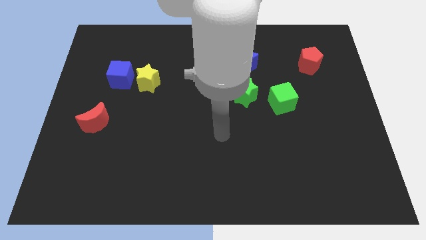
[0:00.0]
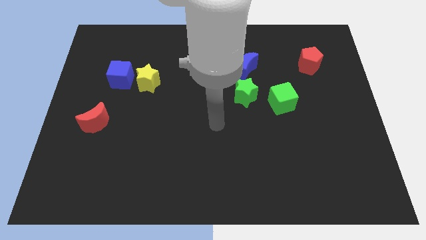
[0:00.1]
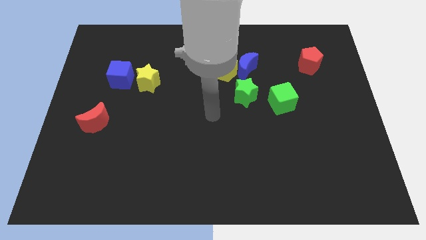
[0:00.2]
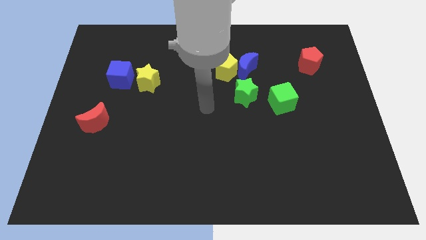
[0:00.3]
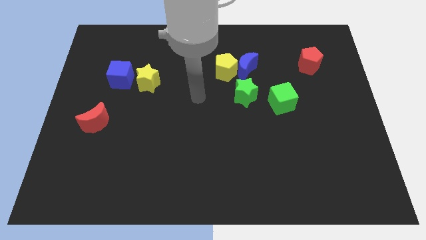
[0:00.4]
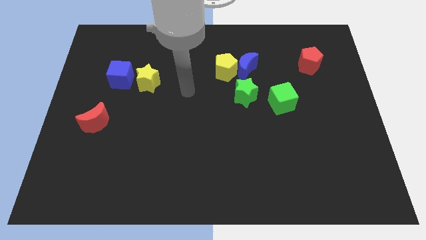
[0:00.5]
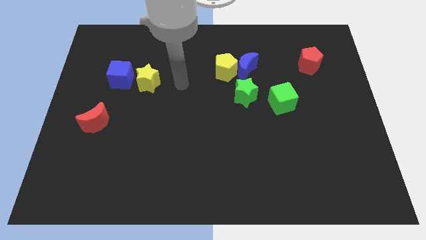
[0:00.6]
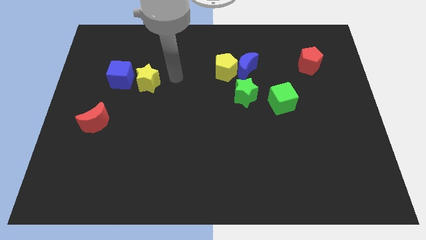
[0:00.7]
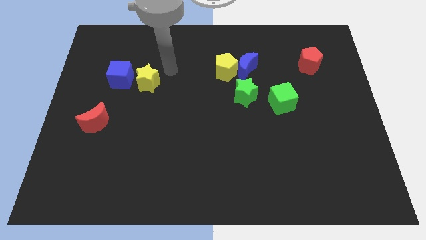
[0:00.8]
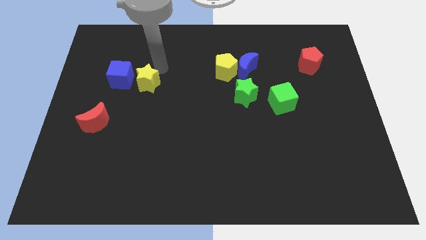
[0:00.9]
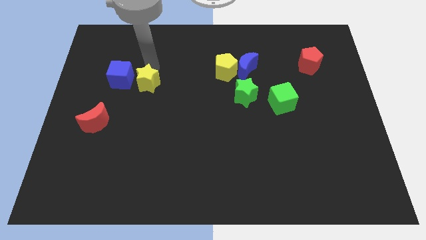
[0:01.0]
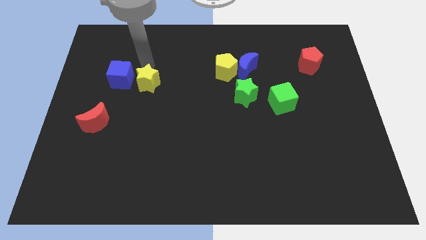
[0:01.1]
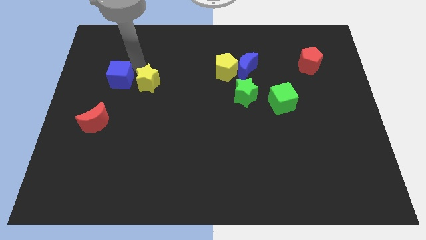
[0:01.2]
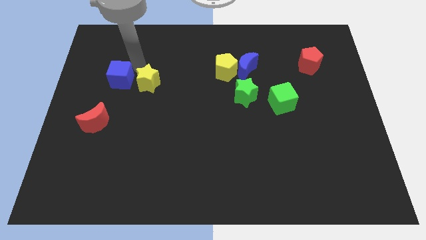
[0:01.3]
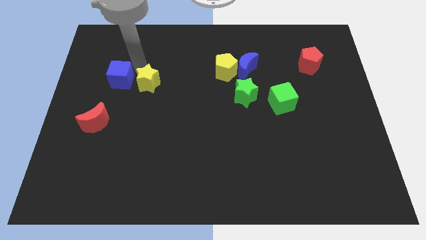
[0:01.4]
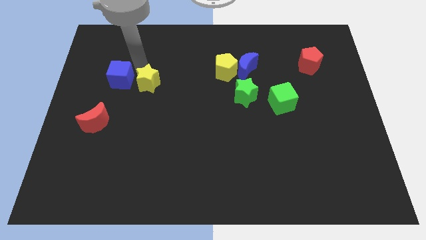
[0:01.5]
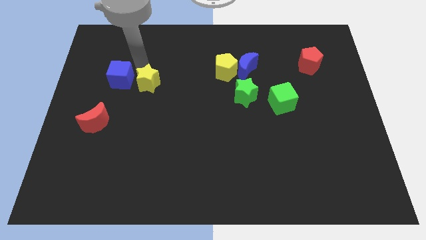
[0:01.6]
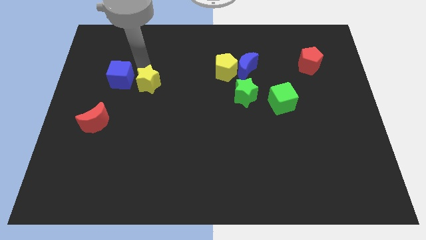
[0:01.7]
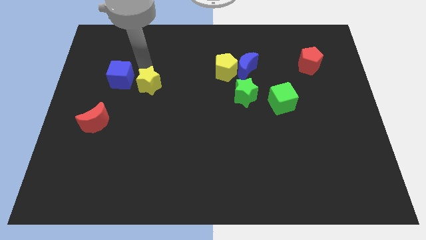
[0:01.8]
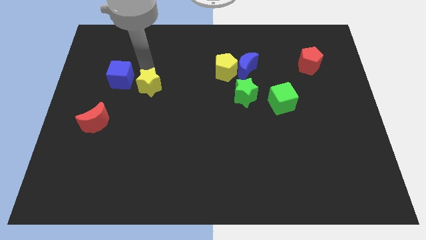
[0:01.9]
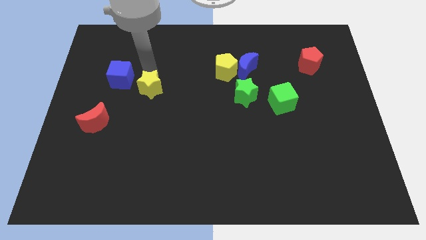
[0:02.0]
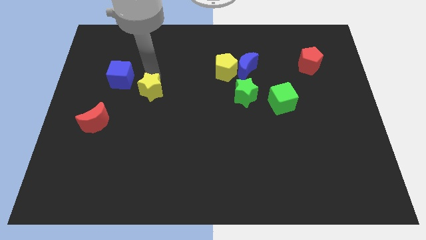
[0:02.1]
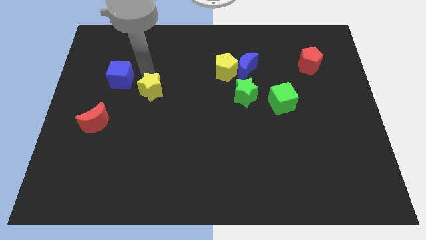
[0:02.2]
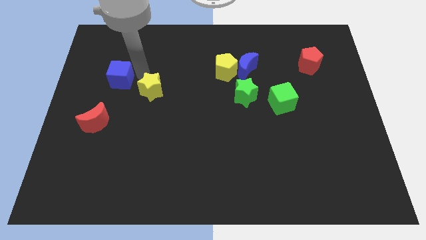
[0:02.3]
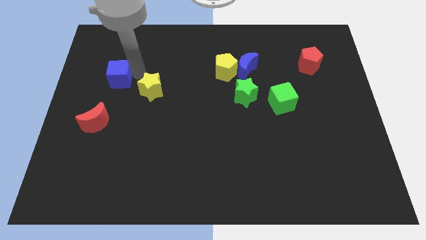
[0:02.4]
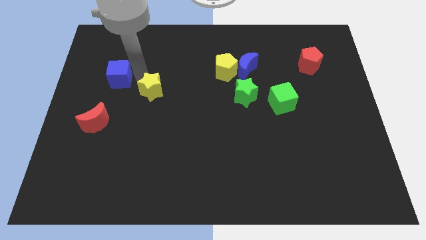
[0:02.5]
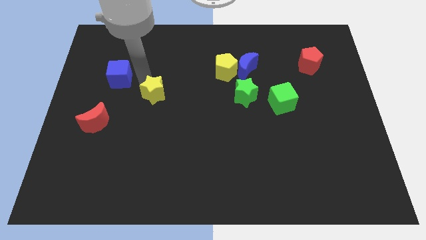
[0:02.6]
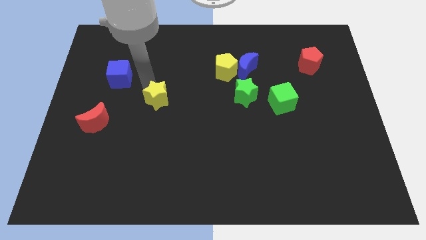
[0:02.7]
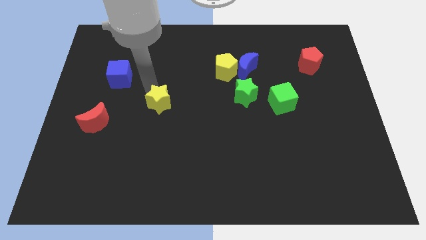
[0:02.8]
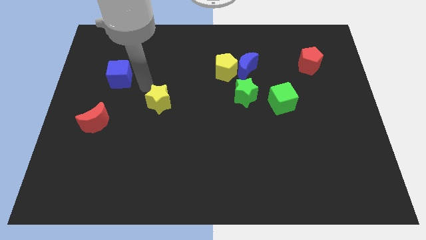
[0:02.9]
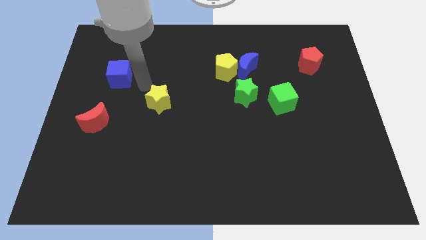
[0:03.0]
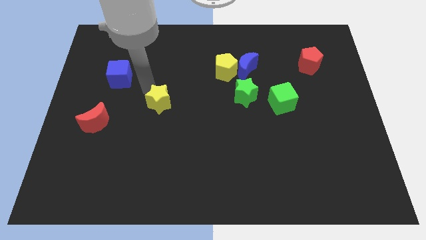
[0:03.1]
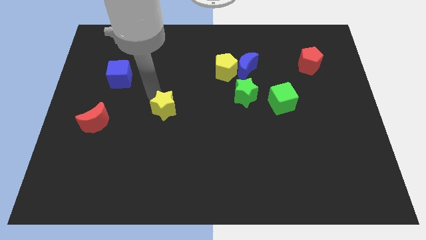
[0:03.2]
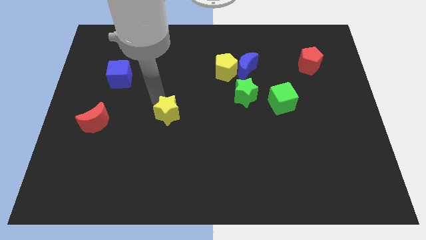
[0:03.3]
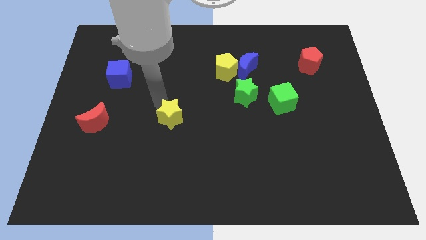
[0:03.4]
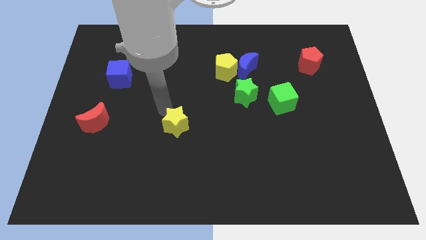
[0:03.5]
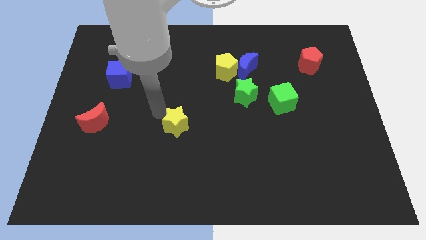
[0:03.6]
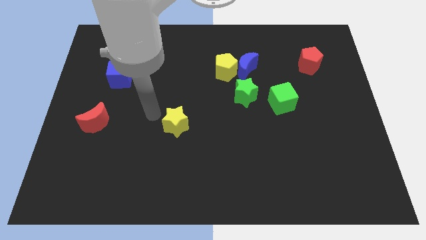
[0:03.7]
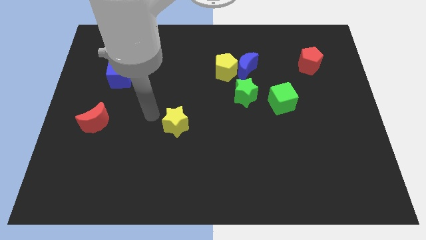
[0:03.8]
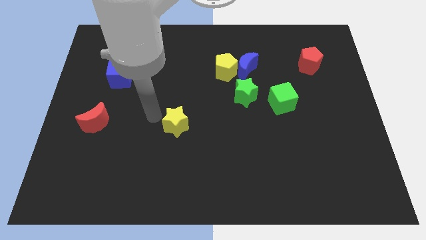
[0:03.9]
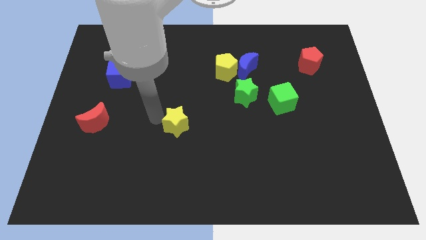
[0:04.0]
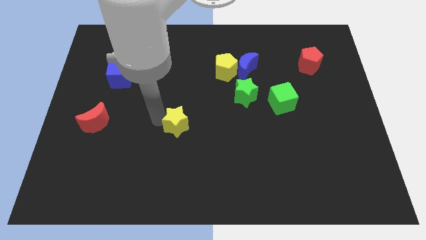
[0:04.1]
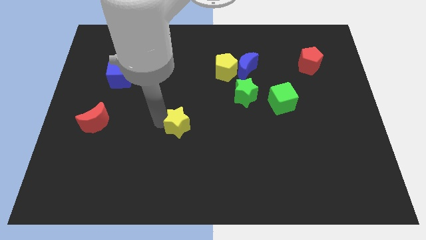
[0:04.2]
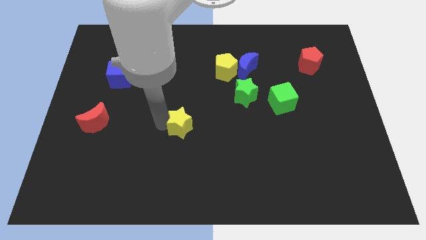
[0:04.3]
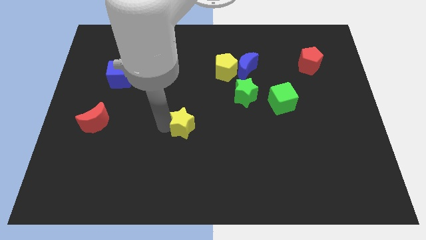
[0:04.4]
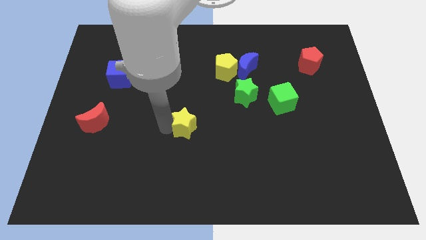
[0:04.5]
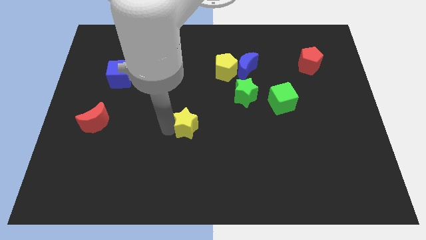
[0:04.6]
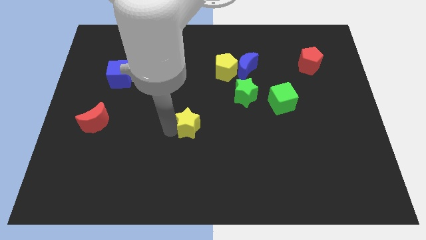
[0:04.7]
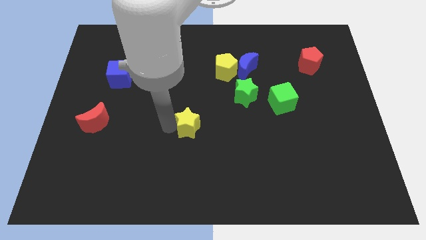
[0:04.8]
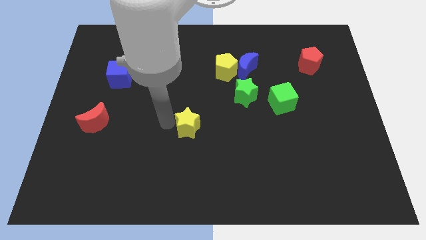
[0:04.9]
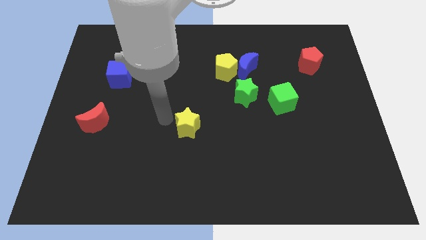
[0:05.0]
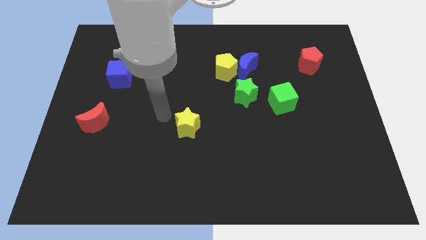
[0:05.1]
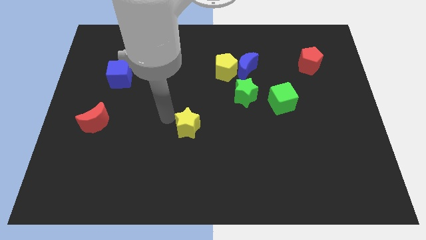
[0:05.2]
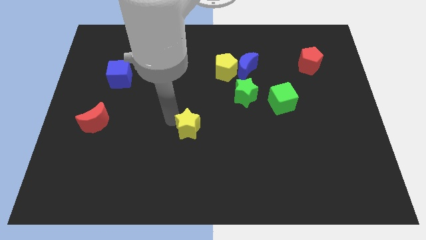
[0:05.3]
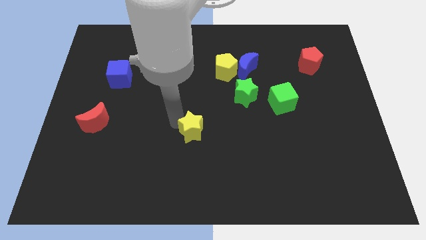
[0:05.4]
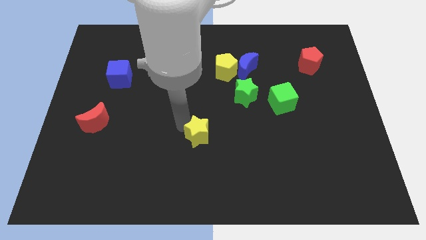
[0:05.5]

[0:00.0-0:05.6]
slide the yellow star downwards and then right

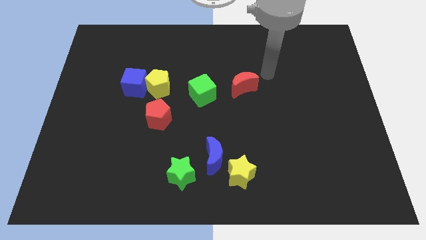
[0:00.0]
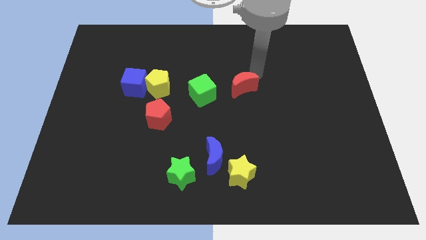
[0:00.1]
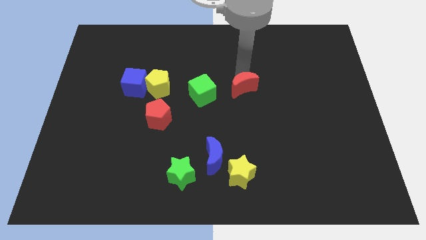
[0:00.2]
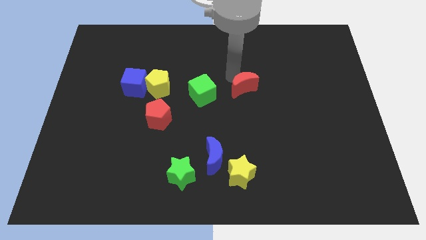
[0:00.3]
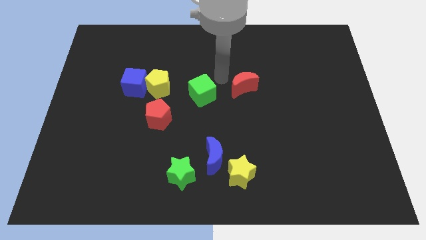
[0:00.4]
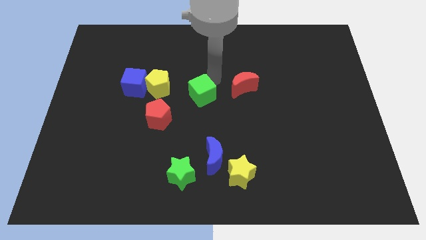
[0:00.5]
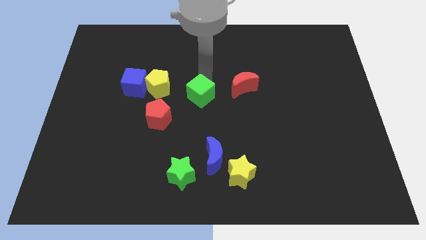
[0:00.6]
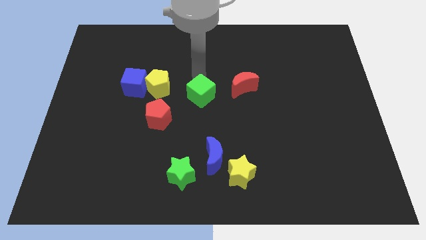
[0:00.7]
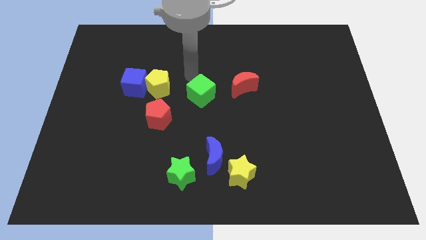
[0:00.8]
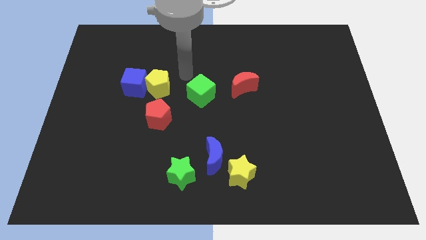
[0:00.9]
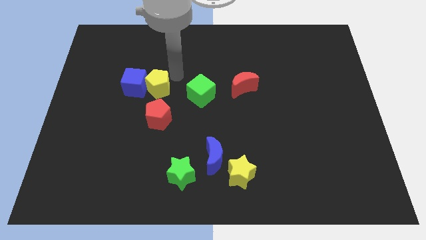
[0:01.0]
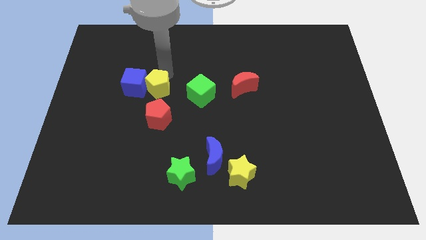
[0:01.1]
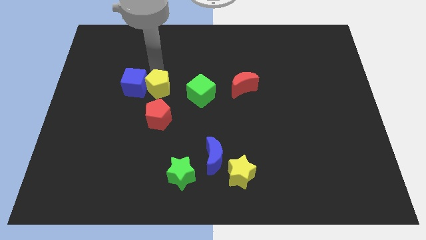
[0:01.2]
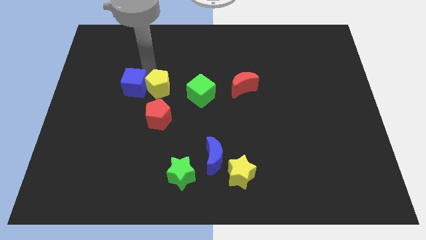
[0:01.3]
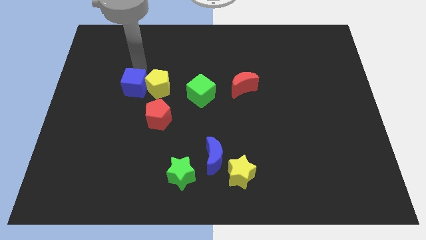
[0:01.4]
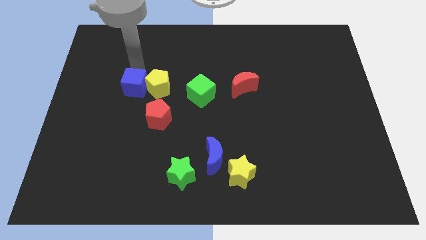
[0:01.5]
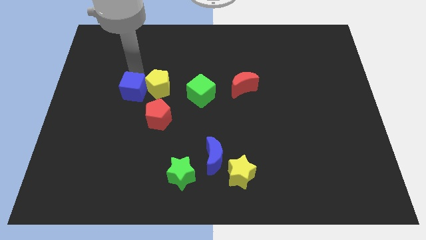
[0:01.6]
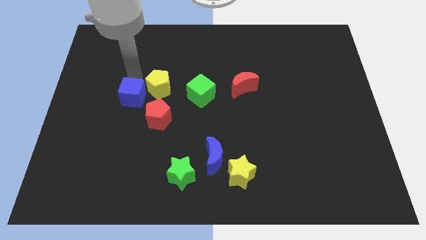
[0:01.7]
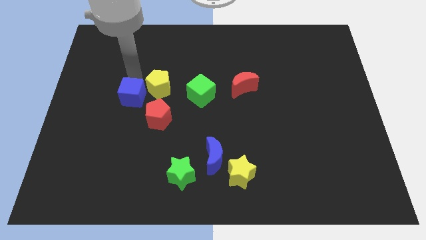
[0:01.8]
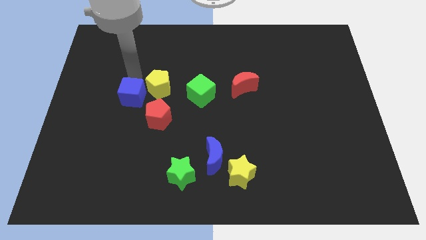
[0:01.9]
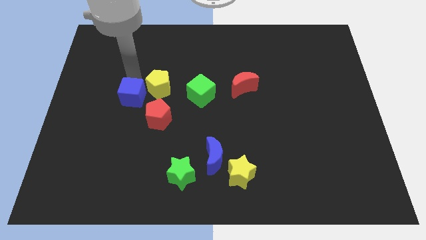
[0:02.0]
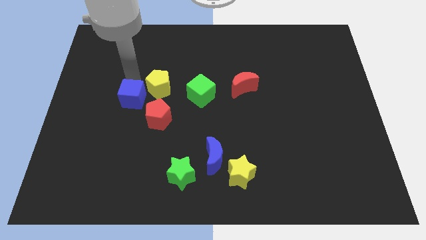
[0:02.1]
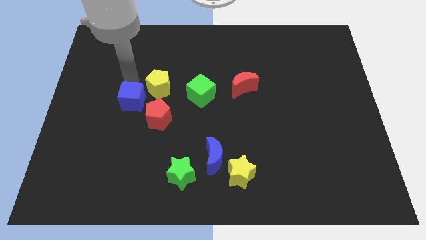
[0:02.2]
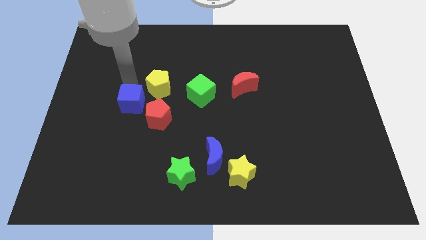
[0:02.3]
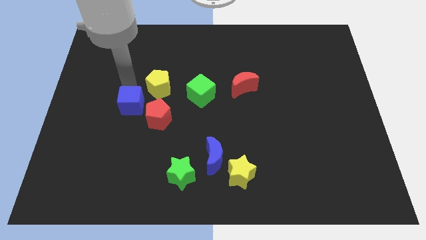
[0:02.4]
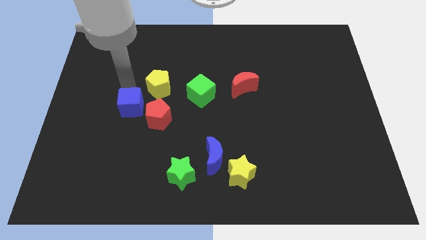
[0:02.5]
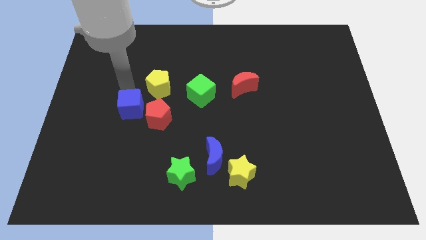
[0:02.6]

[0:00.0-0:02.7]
push the blue cube a little downwards

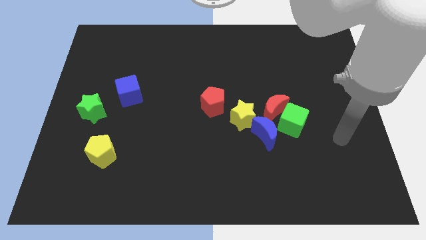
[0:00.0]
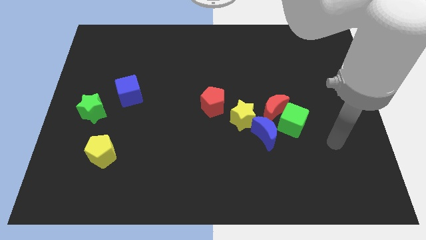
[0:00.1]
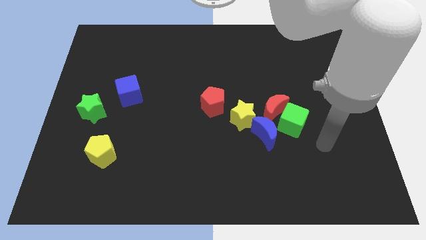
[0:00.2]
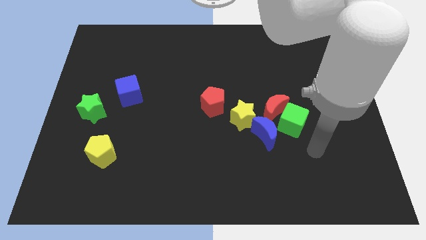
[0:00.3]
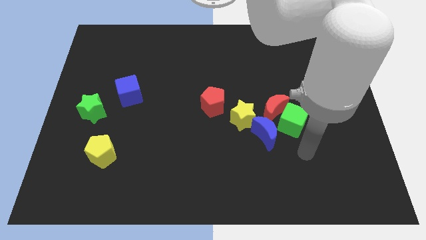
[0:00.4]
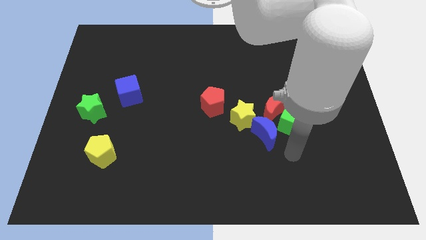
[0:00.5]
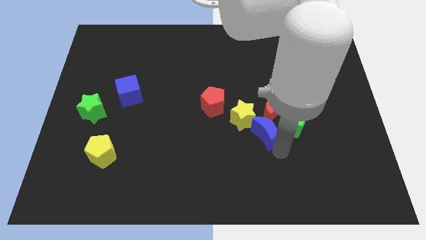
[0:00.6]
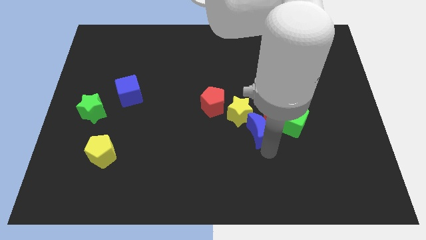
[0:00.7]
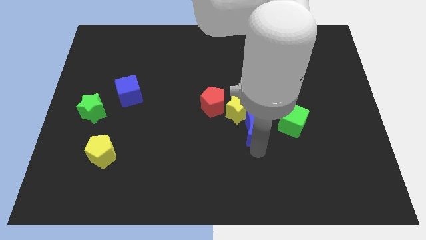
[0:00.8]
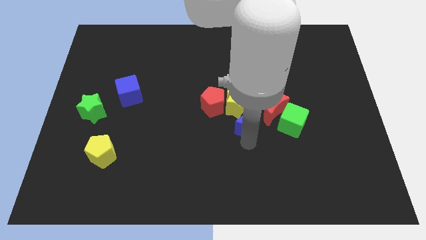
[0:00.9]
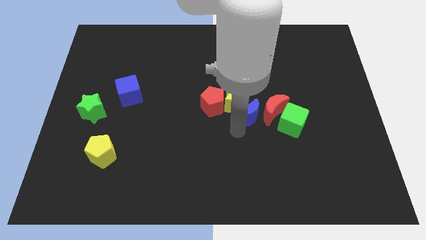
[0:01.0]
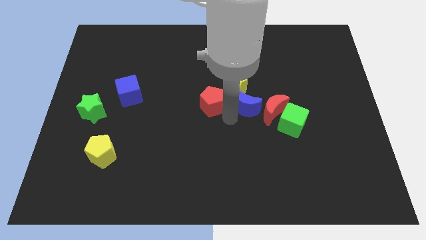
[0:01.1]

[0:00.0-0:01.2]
slide the blue moon somewhat up
